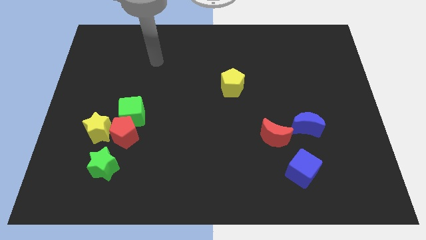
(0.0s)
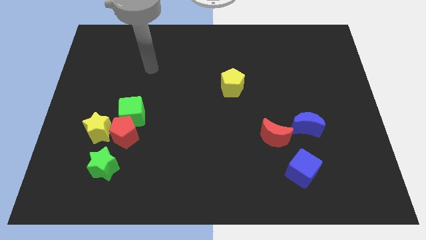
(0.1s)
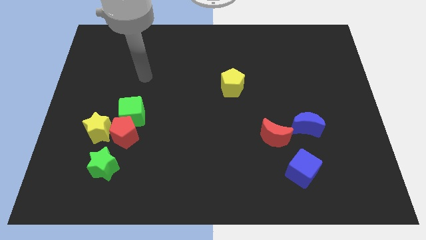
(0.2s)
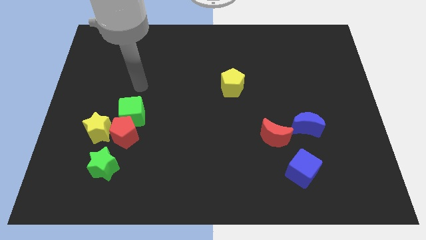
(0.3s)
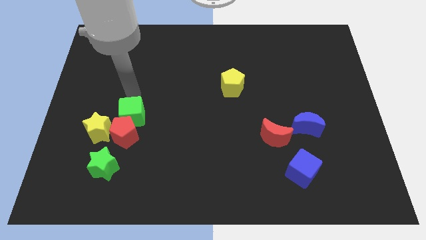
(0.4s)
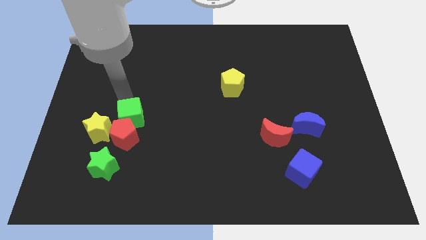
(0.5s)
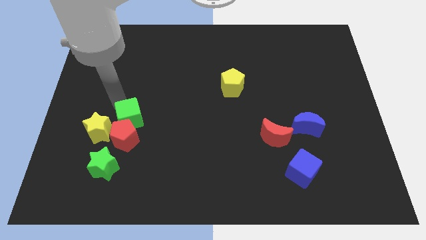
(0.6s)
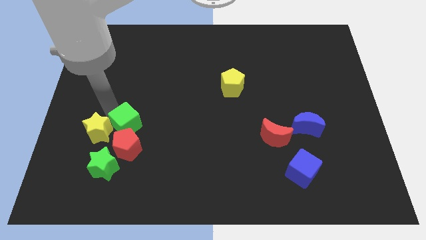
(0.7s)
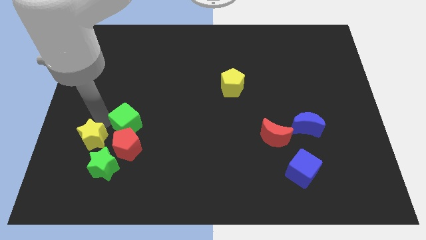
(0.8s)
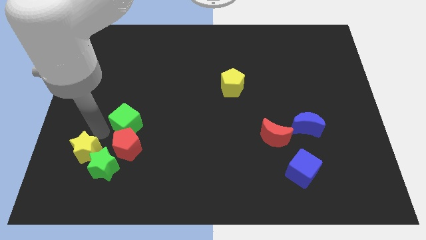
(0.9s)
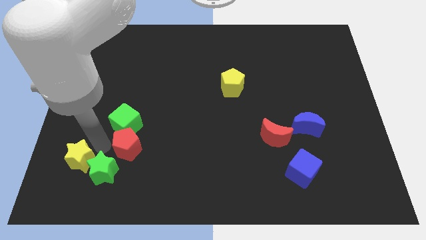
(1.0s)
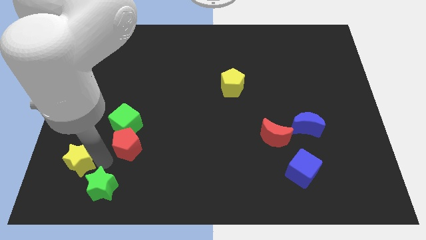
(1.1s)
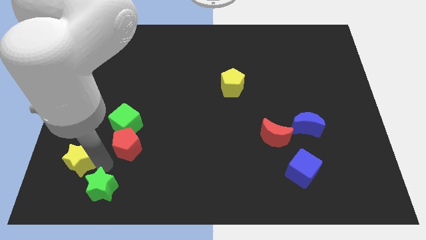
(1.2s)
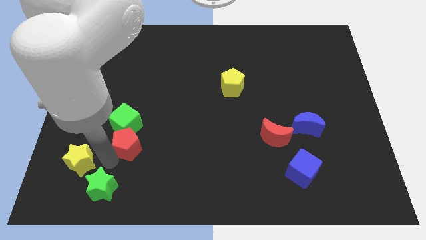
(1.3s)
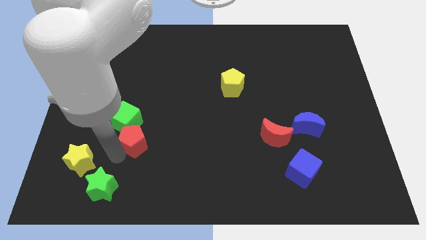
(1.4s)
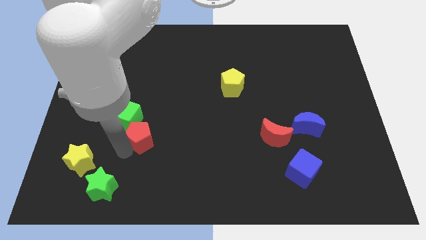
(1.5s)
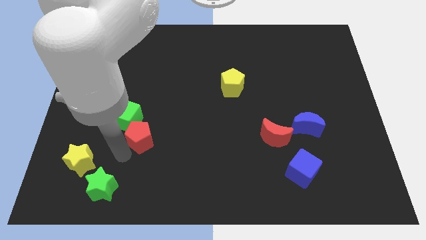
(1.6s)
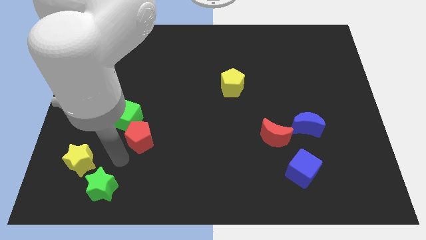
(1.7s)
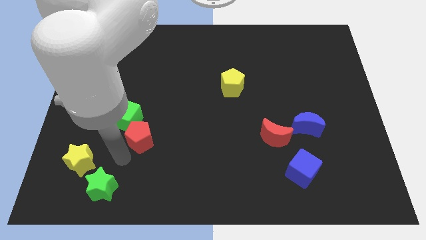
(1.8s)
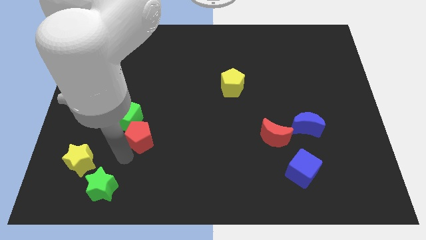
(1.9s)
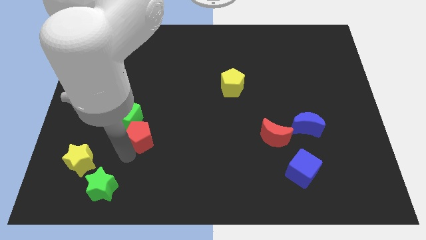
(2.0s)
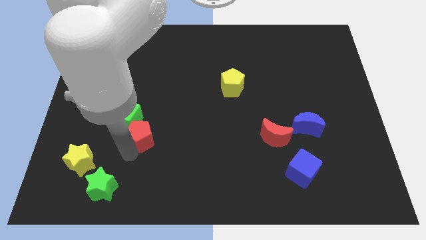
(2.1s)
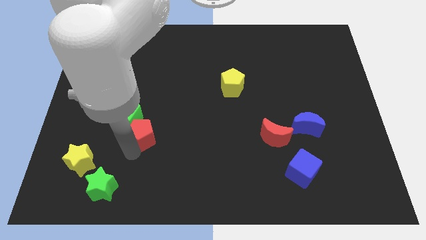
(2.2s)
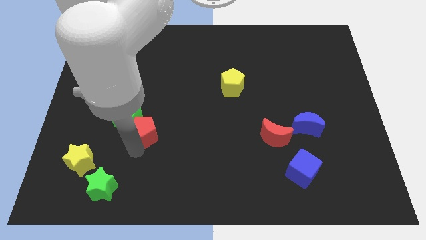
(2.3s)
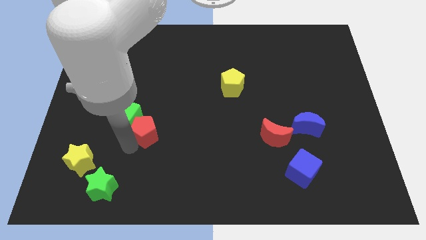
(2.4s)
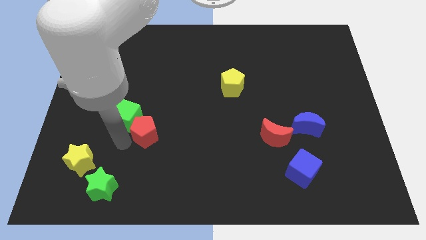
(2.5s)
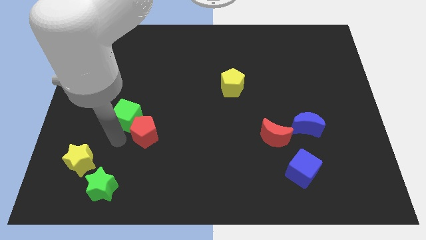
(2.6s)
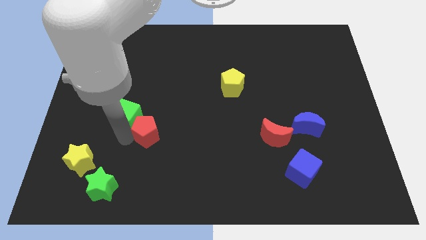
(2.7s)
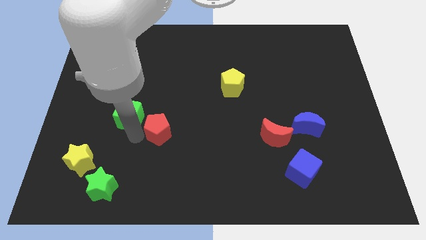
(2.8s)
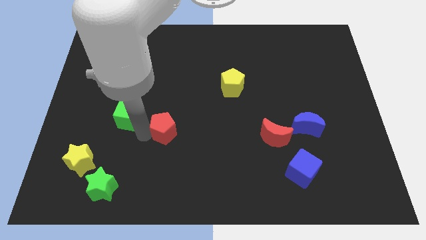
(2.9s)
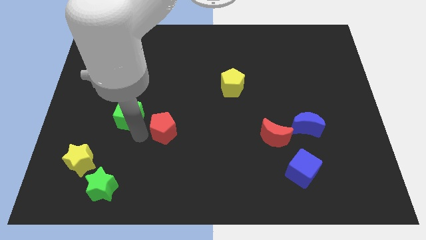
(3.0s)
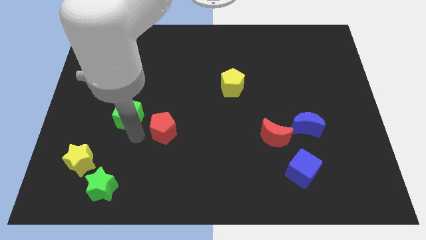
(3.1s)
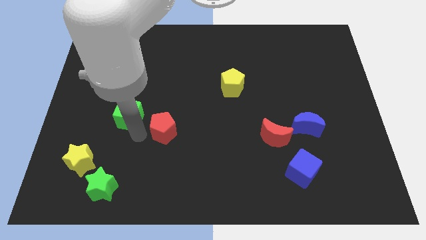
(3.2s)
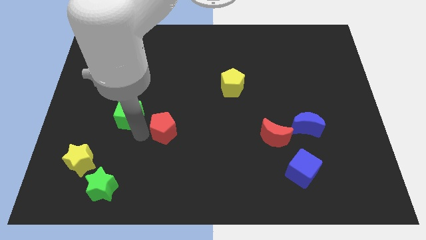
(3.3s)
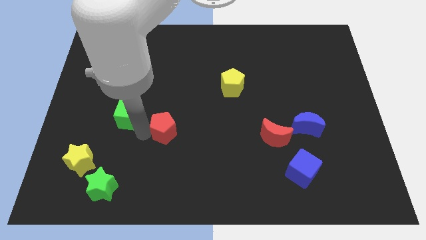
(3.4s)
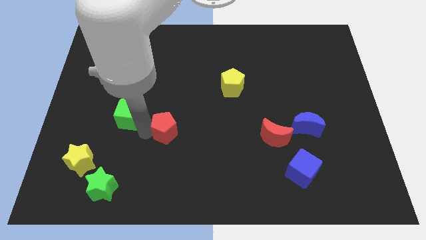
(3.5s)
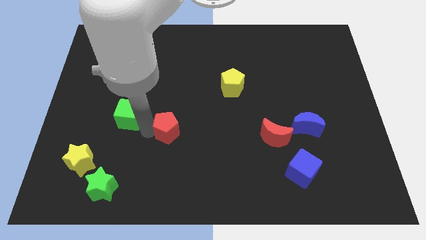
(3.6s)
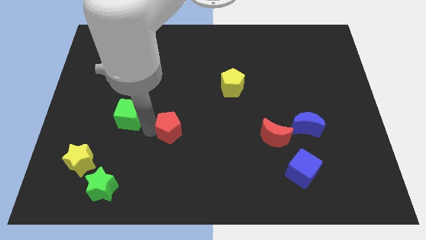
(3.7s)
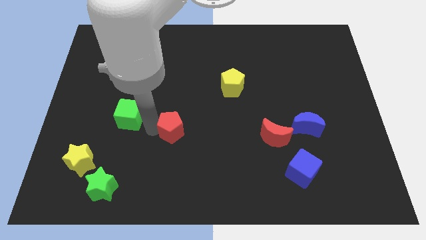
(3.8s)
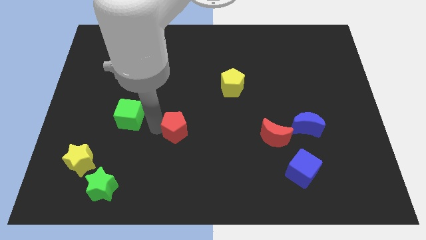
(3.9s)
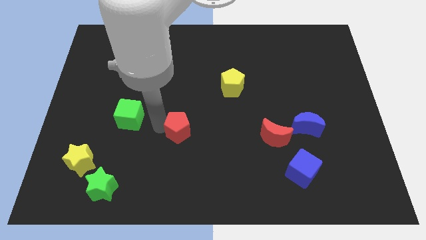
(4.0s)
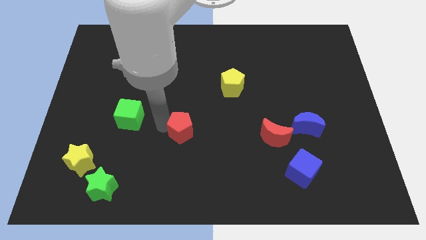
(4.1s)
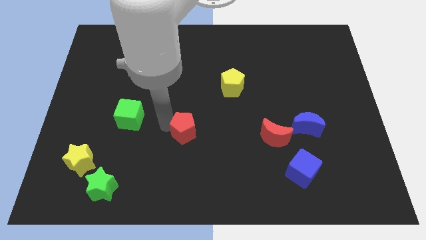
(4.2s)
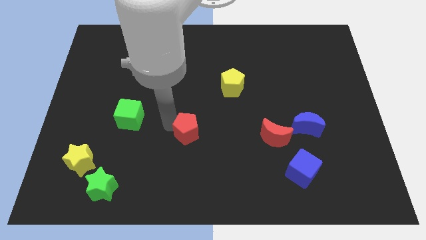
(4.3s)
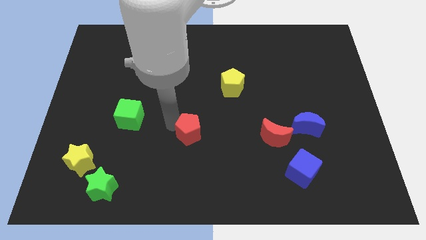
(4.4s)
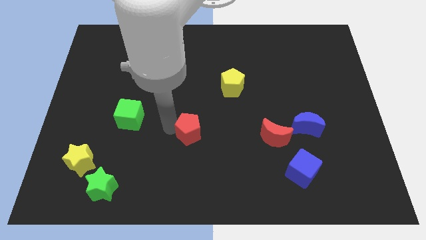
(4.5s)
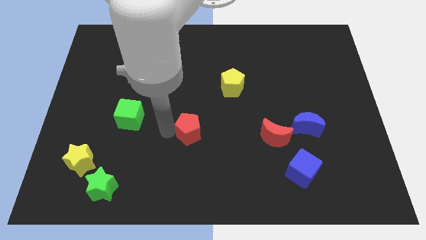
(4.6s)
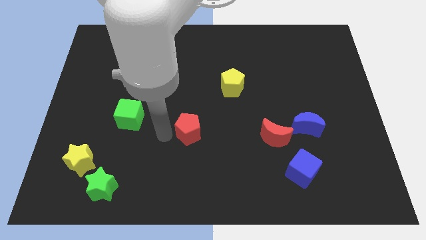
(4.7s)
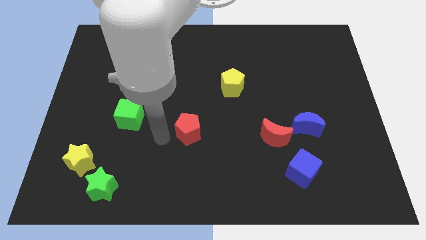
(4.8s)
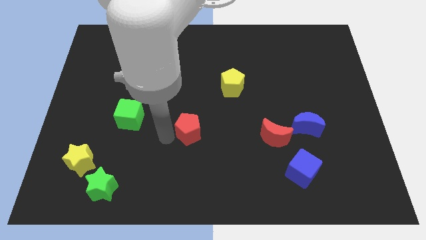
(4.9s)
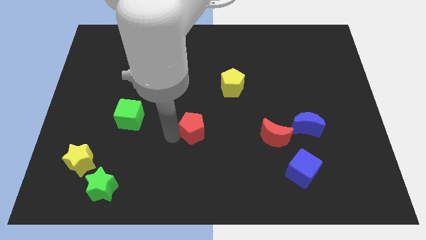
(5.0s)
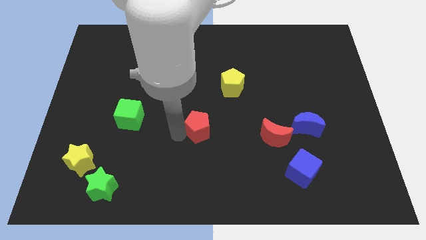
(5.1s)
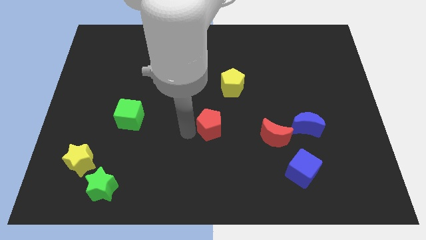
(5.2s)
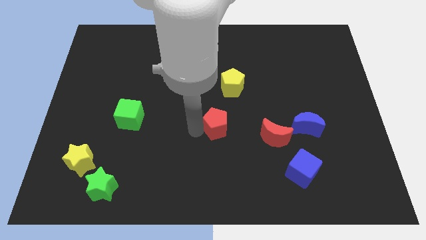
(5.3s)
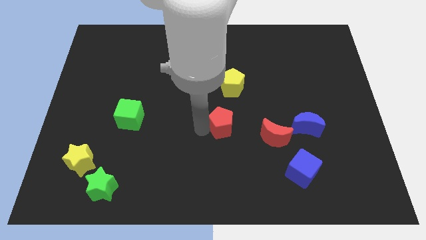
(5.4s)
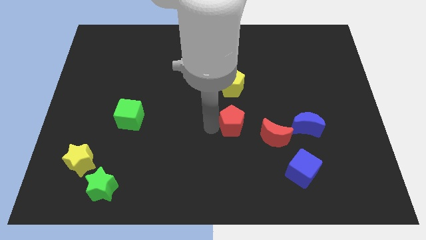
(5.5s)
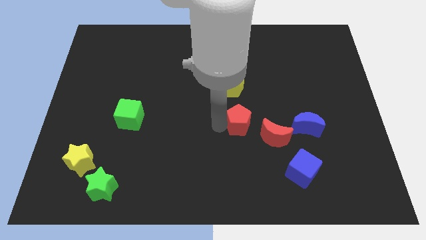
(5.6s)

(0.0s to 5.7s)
put the red pentagon left of the blue moon

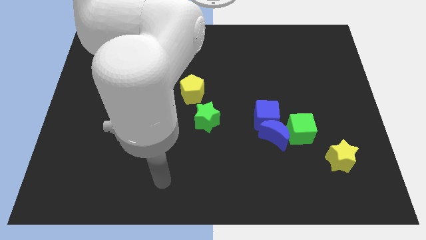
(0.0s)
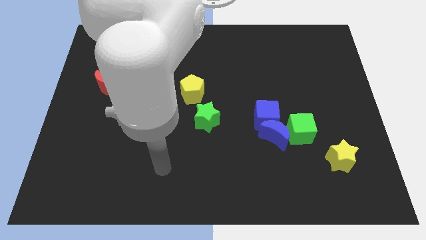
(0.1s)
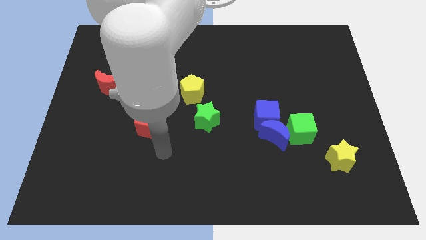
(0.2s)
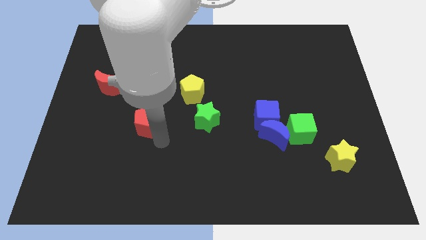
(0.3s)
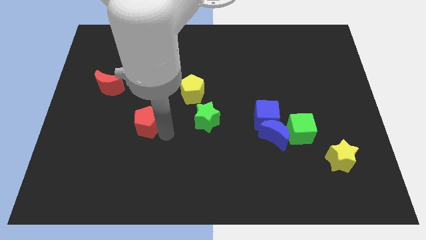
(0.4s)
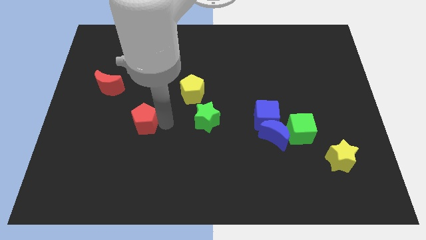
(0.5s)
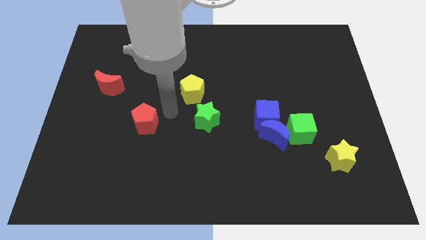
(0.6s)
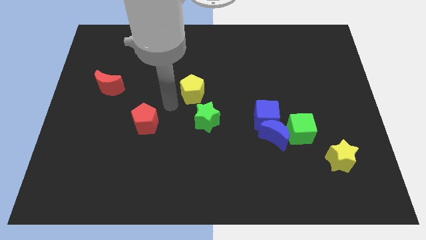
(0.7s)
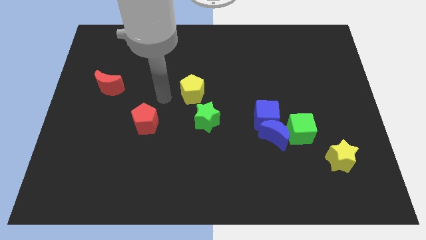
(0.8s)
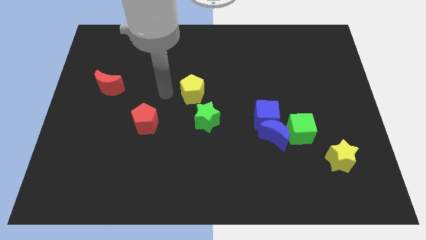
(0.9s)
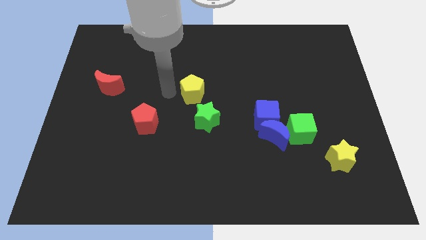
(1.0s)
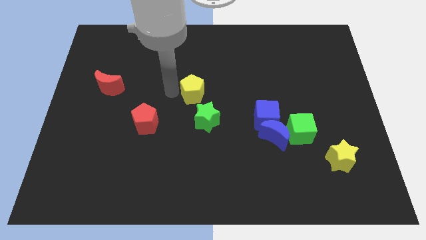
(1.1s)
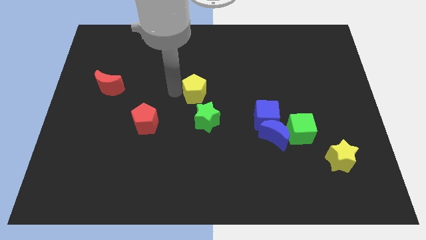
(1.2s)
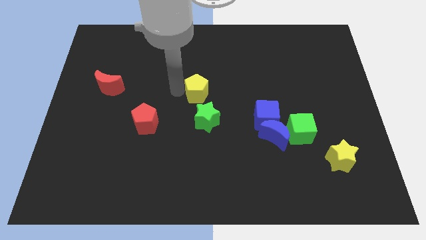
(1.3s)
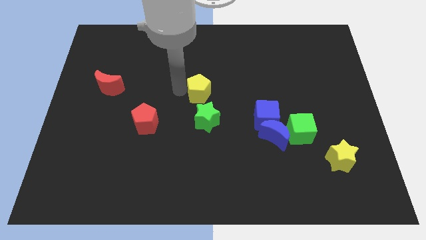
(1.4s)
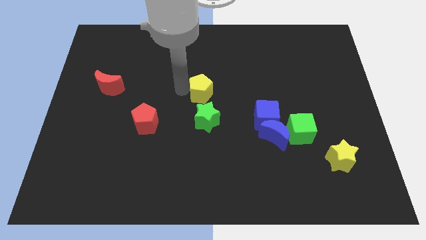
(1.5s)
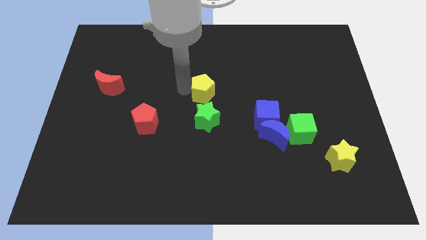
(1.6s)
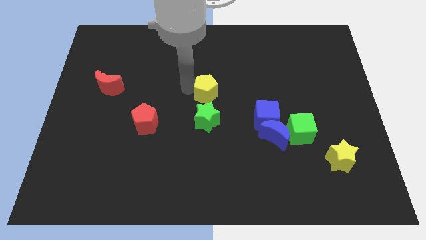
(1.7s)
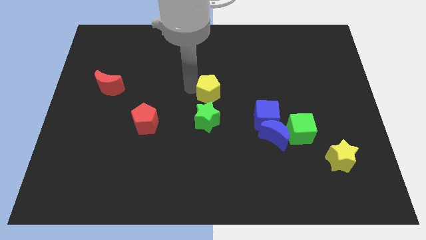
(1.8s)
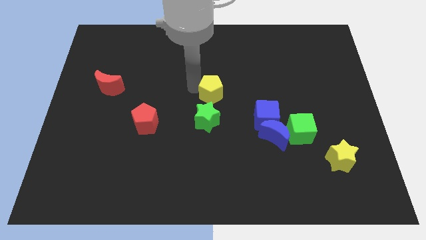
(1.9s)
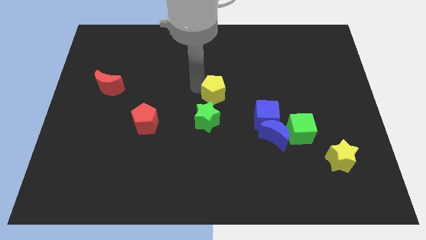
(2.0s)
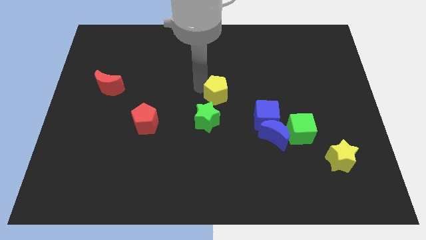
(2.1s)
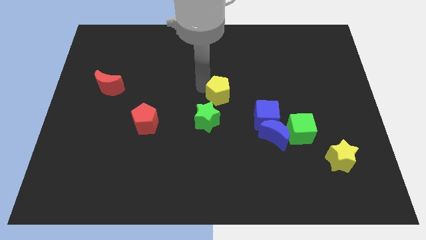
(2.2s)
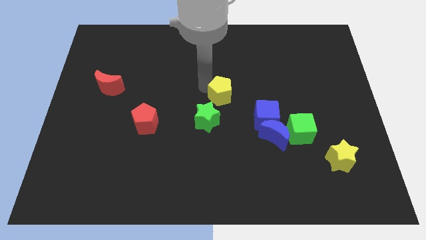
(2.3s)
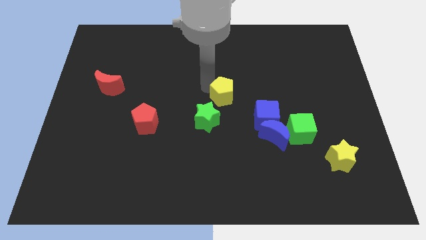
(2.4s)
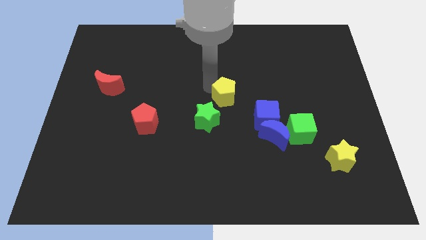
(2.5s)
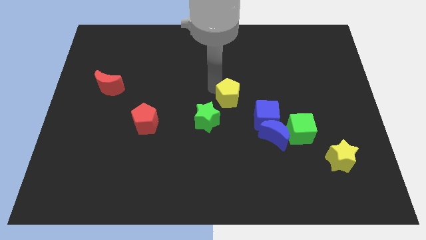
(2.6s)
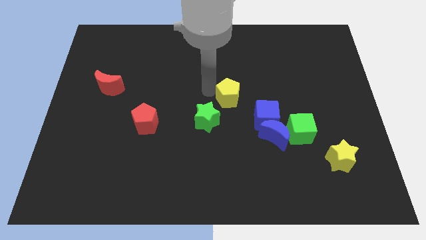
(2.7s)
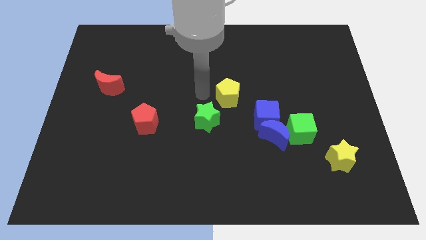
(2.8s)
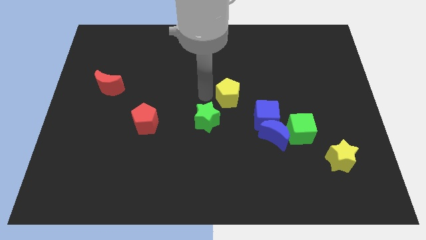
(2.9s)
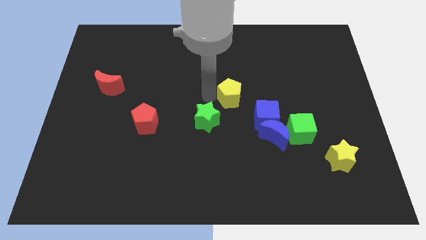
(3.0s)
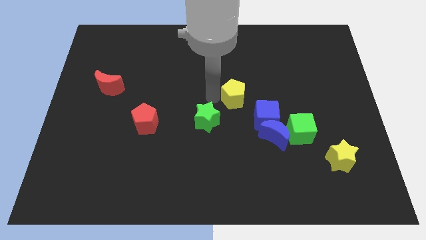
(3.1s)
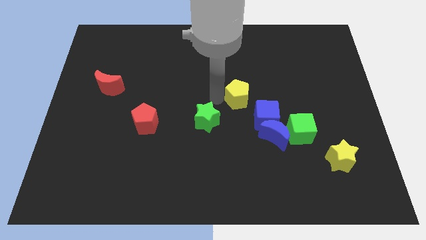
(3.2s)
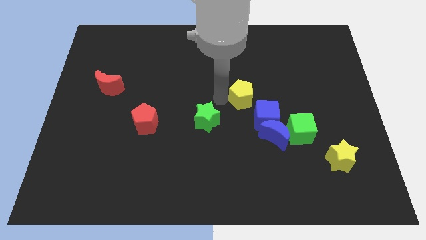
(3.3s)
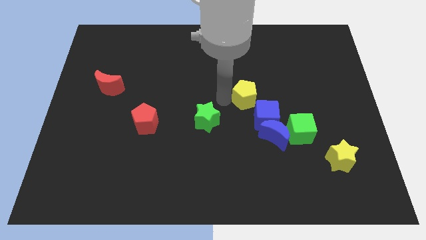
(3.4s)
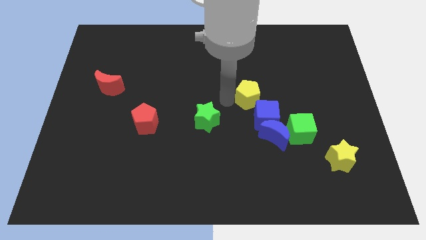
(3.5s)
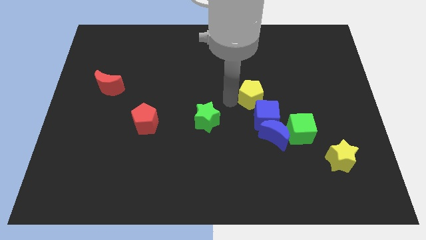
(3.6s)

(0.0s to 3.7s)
put the yellow pentagon to the top of the blue moon
